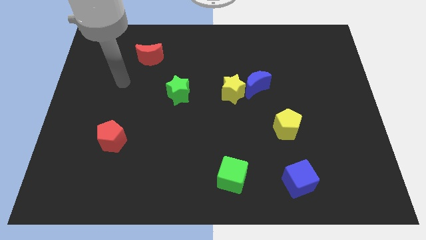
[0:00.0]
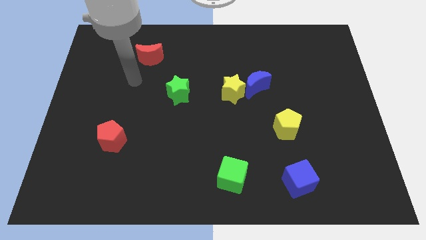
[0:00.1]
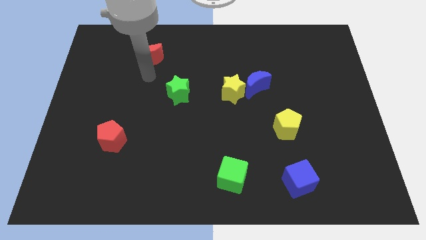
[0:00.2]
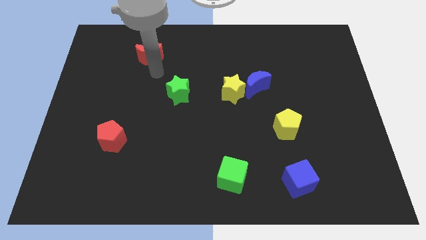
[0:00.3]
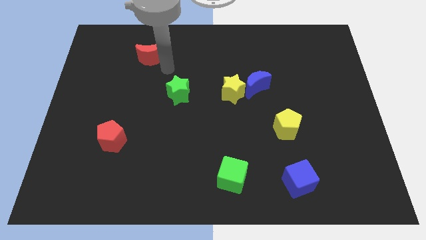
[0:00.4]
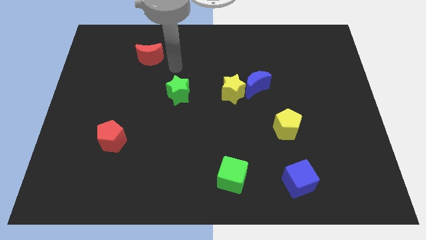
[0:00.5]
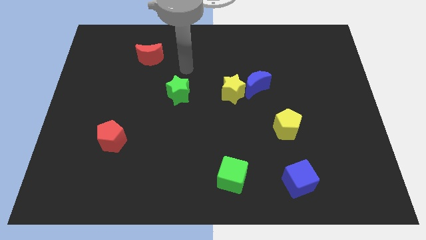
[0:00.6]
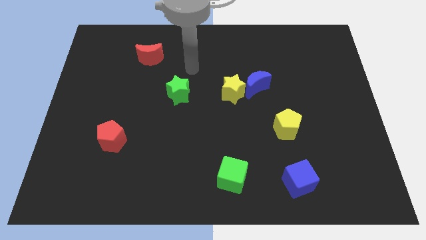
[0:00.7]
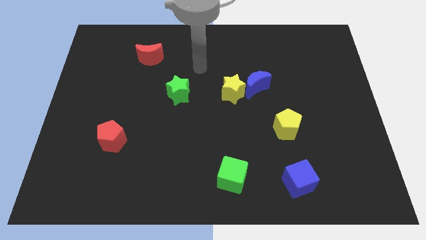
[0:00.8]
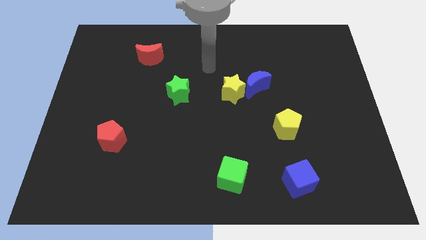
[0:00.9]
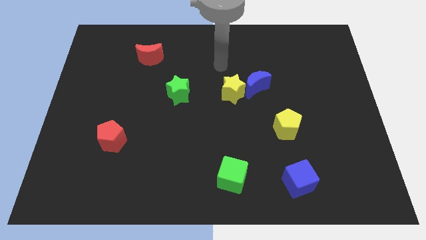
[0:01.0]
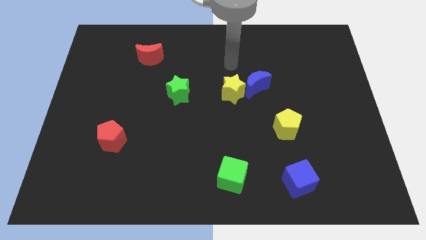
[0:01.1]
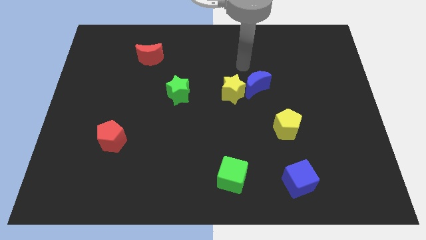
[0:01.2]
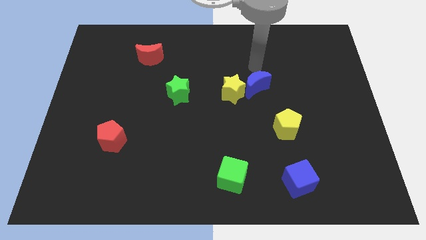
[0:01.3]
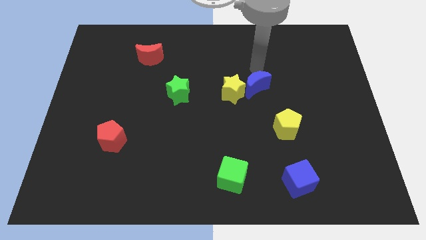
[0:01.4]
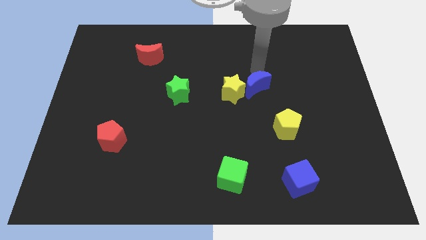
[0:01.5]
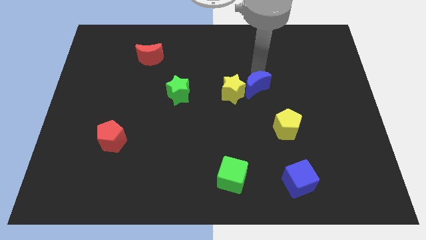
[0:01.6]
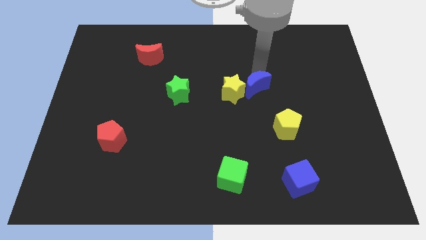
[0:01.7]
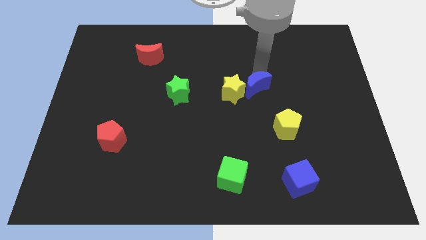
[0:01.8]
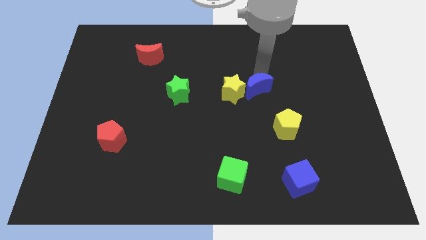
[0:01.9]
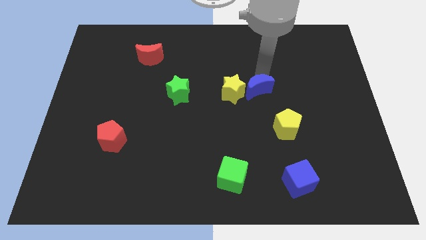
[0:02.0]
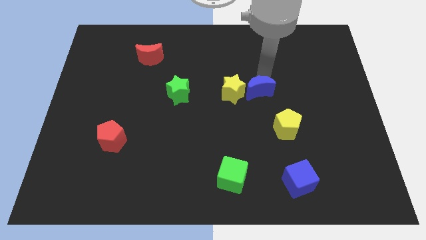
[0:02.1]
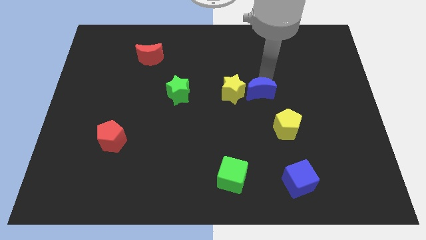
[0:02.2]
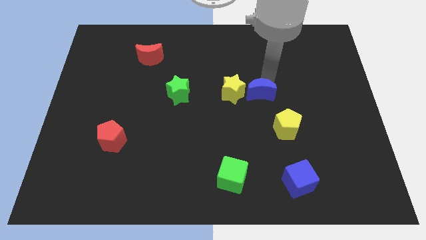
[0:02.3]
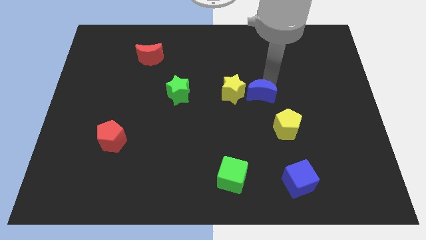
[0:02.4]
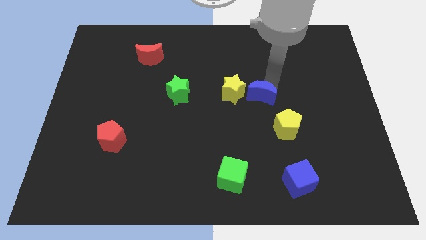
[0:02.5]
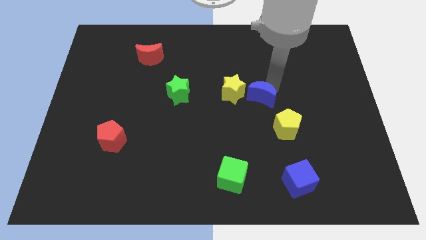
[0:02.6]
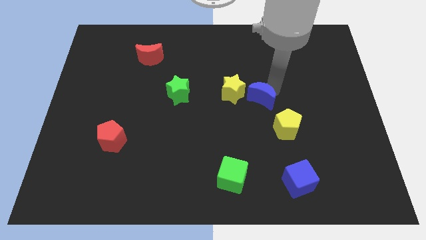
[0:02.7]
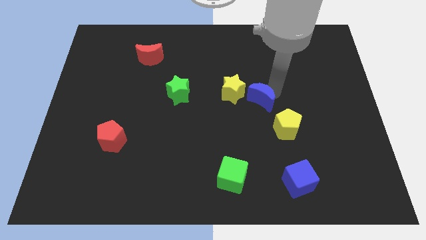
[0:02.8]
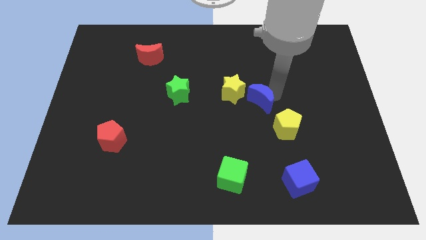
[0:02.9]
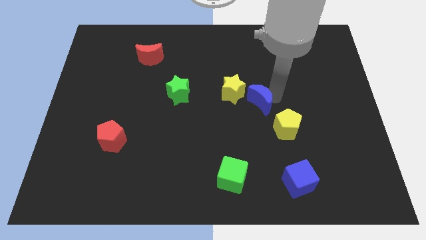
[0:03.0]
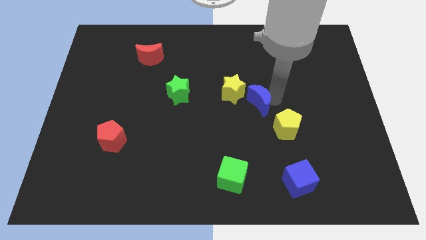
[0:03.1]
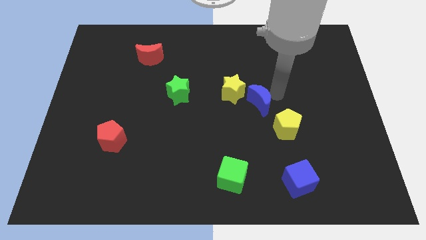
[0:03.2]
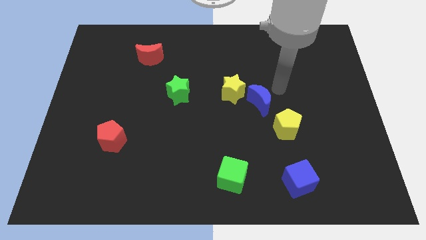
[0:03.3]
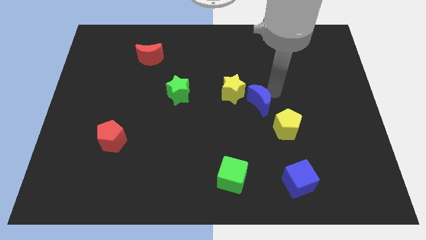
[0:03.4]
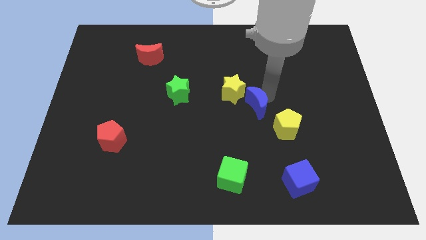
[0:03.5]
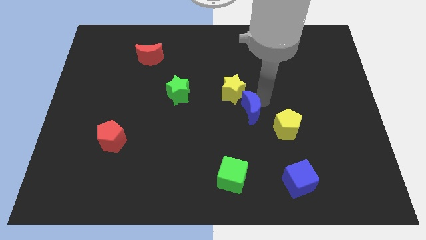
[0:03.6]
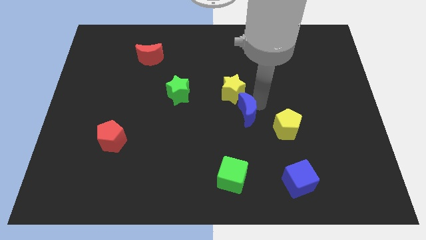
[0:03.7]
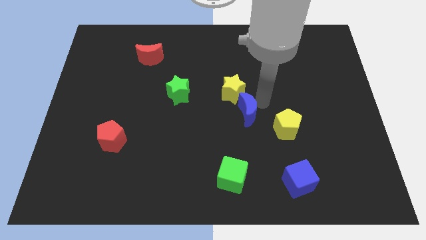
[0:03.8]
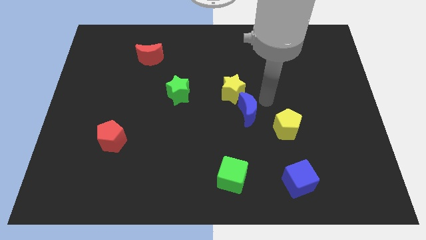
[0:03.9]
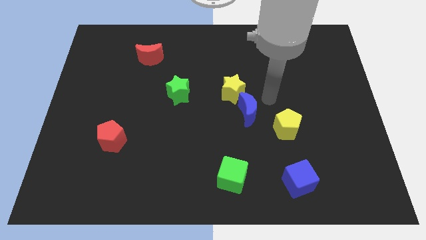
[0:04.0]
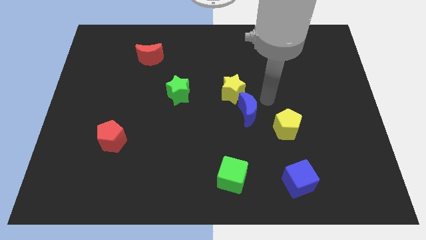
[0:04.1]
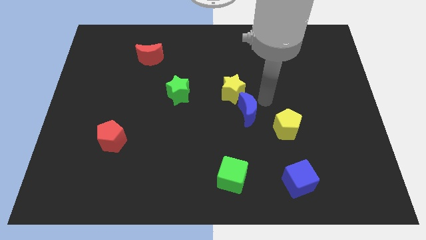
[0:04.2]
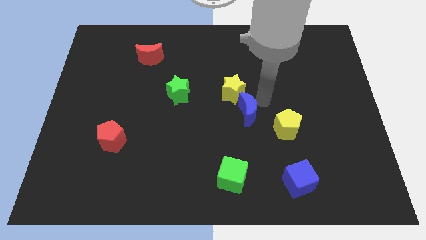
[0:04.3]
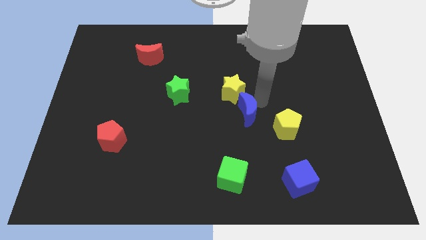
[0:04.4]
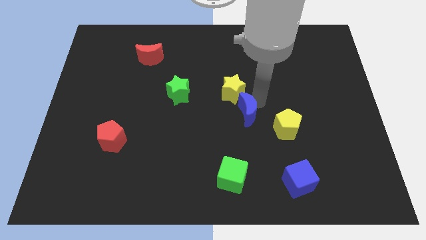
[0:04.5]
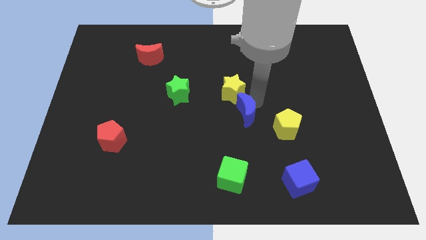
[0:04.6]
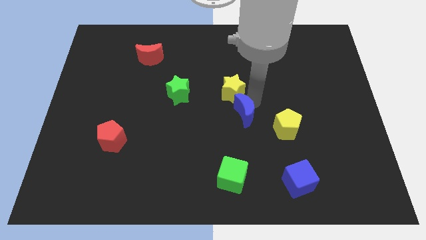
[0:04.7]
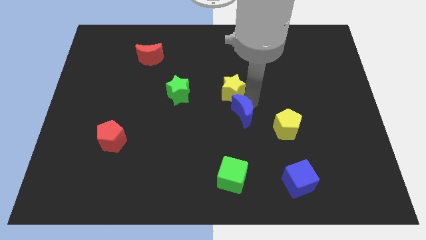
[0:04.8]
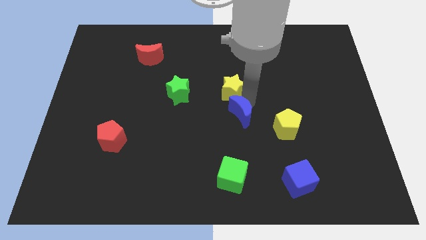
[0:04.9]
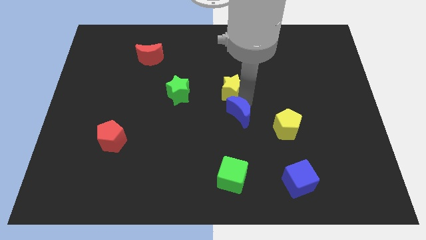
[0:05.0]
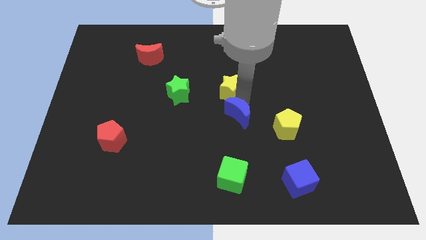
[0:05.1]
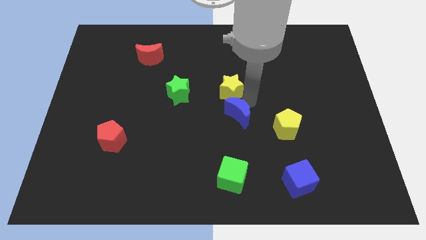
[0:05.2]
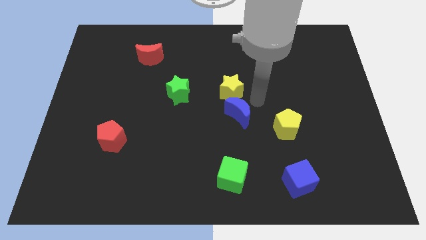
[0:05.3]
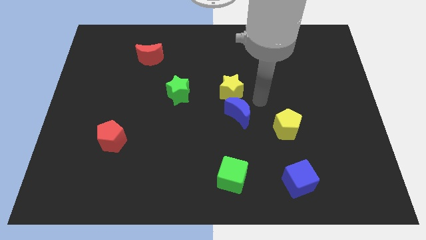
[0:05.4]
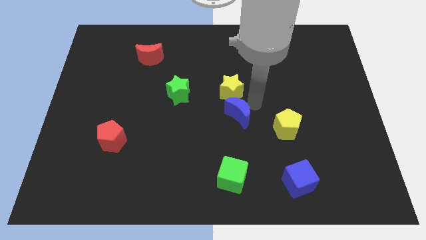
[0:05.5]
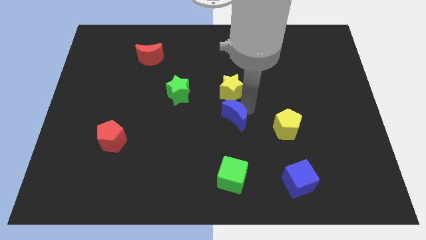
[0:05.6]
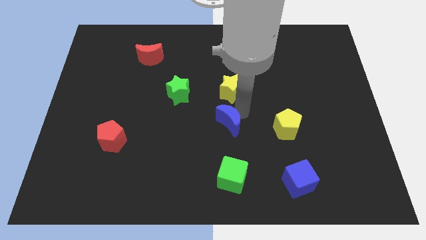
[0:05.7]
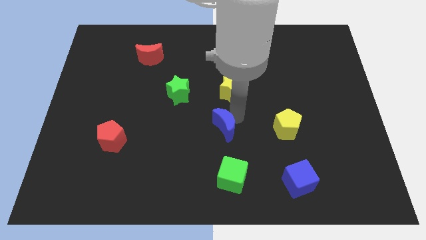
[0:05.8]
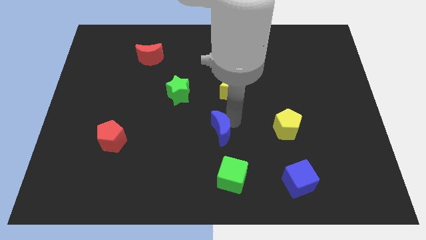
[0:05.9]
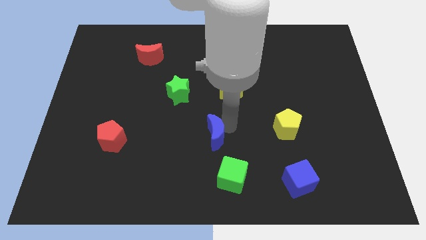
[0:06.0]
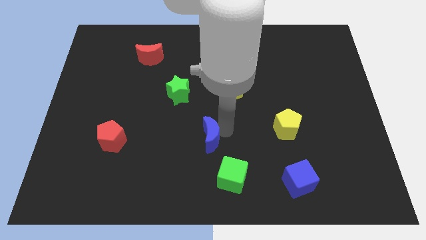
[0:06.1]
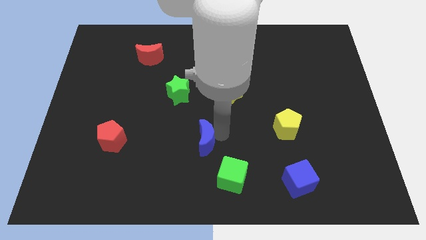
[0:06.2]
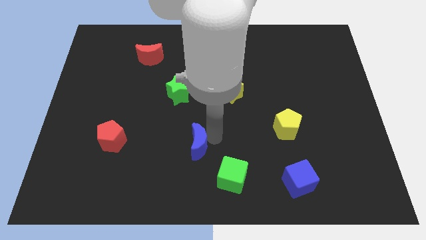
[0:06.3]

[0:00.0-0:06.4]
slide the blue moon diagonally downwards and to the left

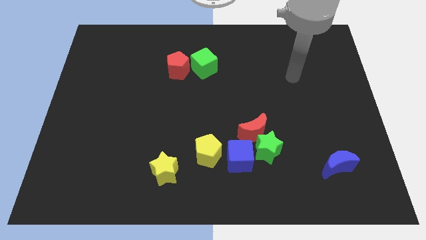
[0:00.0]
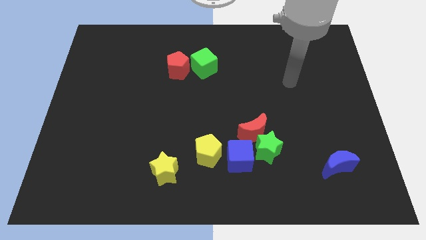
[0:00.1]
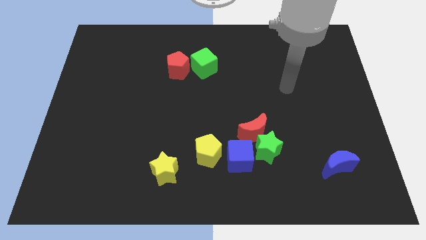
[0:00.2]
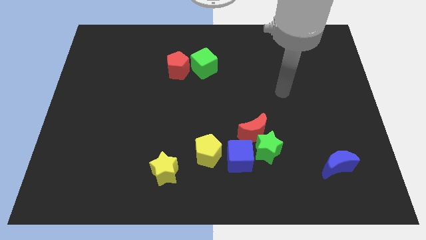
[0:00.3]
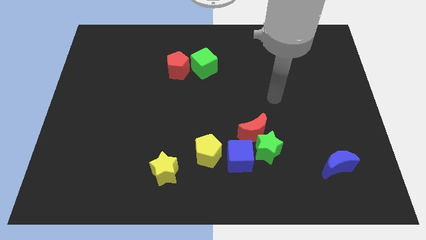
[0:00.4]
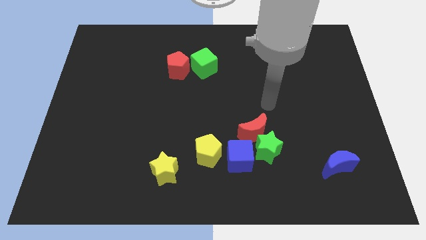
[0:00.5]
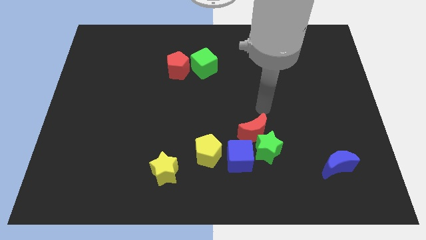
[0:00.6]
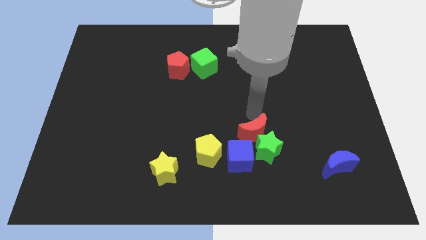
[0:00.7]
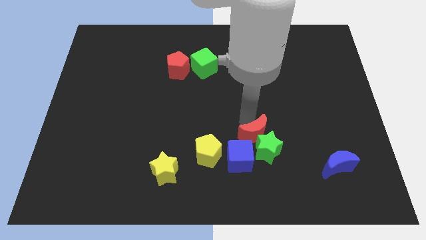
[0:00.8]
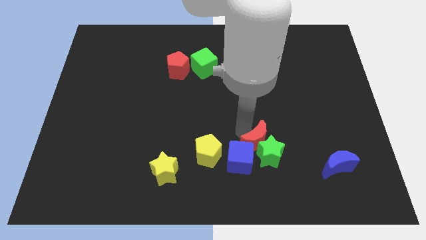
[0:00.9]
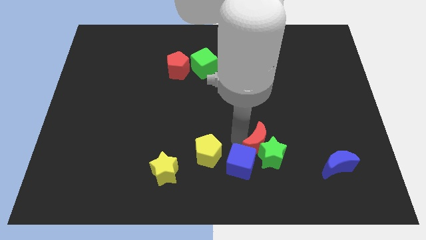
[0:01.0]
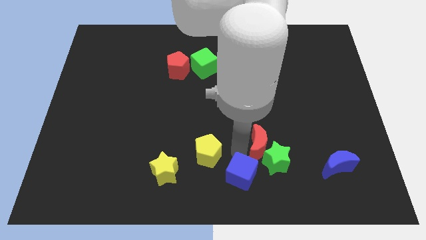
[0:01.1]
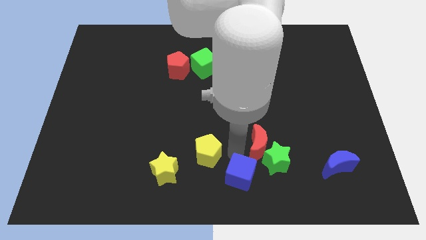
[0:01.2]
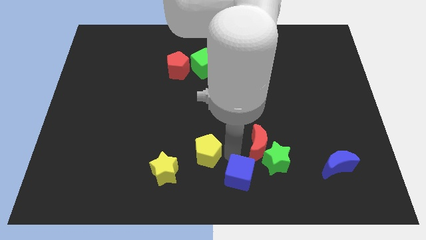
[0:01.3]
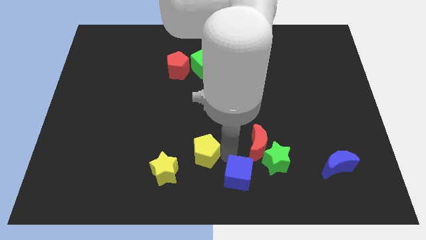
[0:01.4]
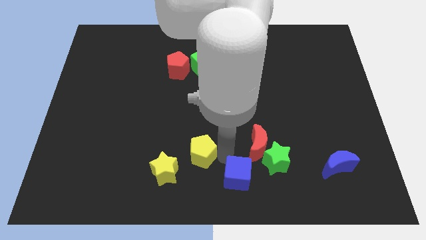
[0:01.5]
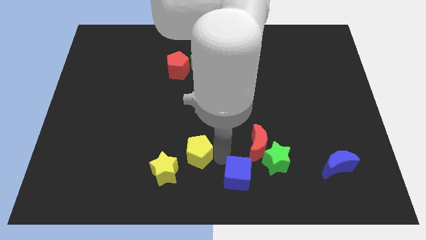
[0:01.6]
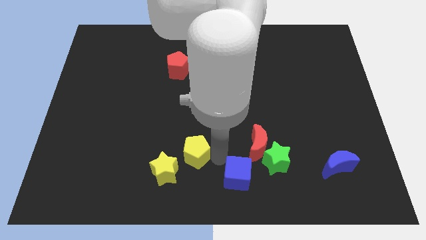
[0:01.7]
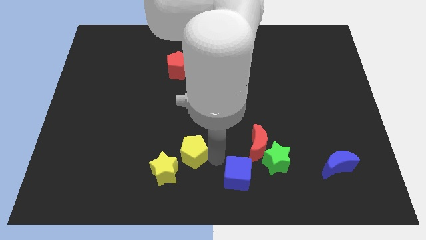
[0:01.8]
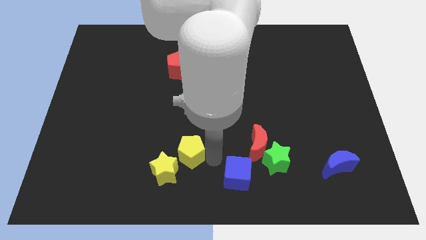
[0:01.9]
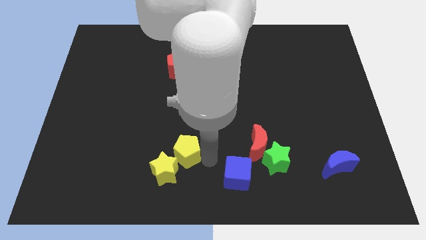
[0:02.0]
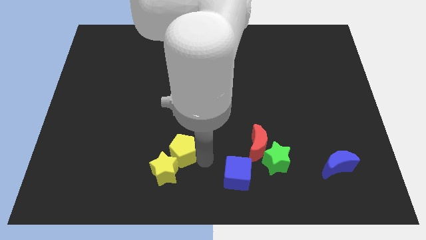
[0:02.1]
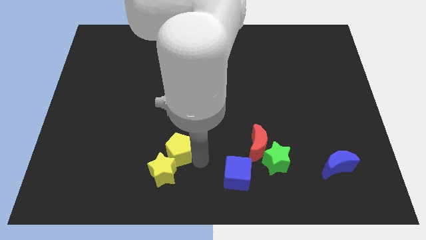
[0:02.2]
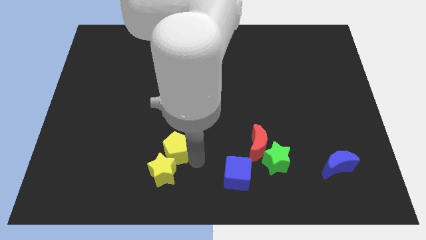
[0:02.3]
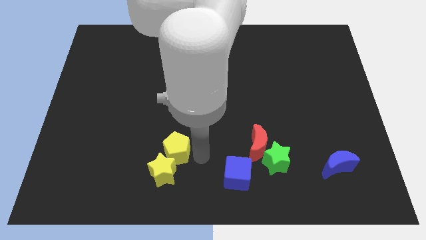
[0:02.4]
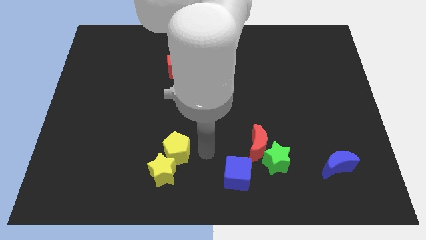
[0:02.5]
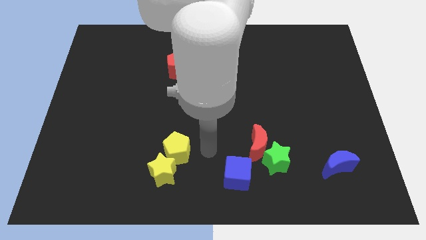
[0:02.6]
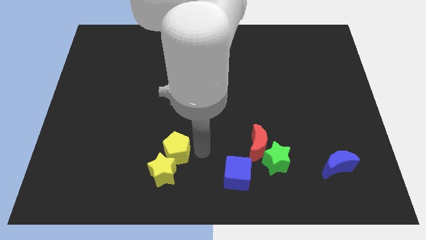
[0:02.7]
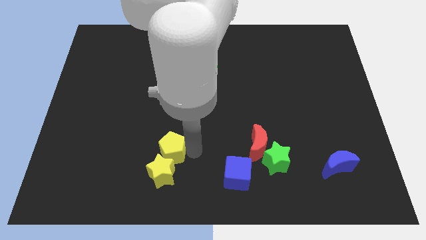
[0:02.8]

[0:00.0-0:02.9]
slightly slide the yellow pentagon left
